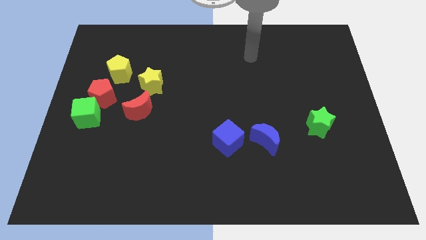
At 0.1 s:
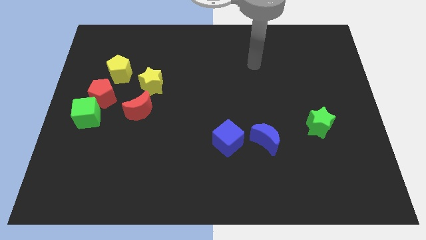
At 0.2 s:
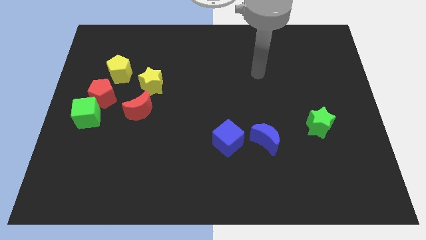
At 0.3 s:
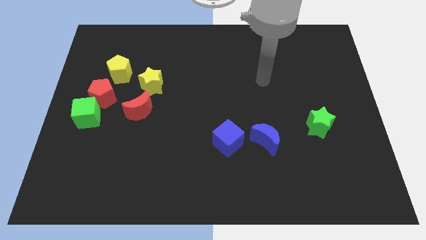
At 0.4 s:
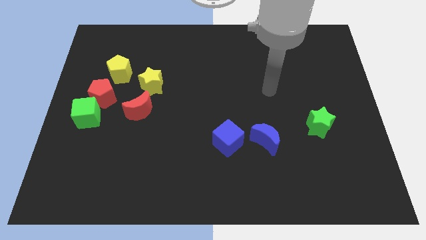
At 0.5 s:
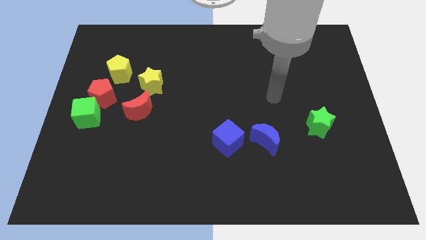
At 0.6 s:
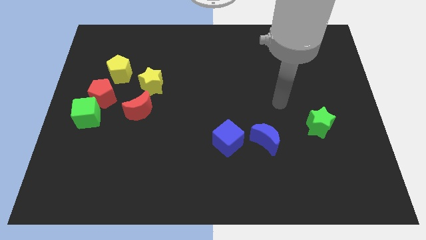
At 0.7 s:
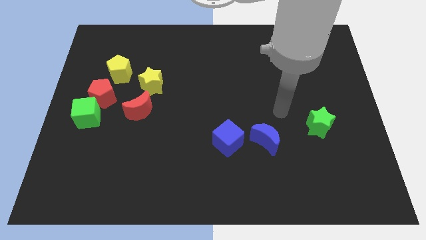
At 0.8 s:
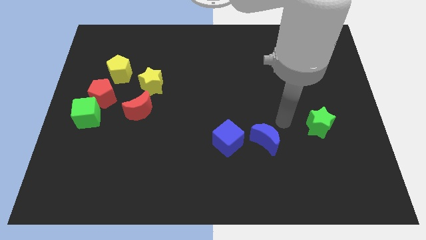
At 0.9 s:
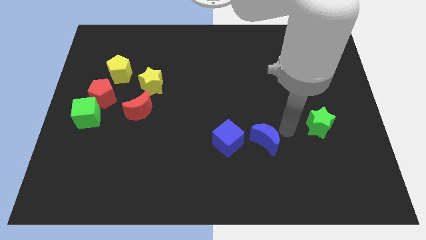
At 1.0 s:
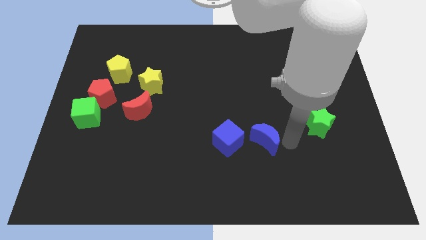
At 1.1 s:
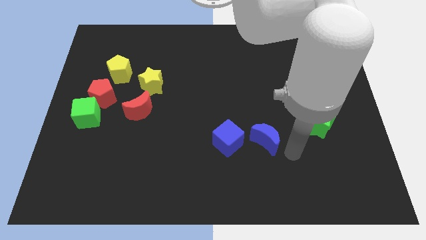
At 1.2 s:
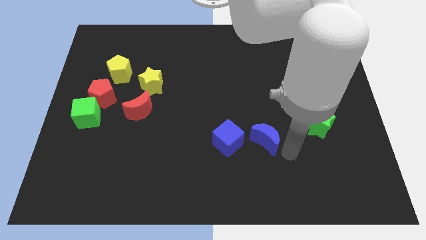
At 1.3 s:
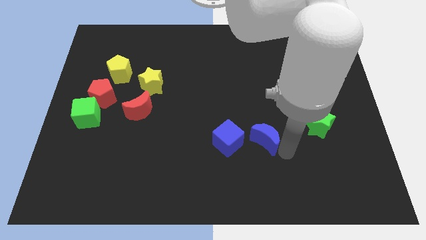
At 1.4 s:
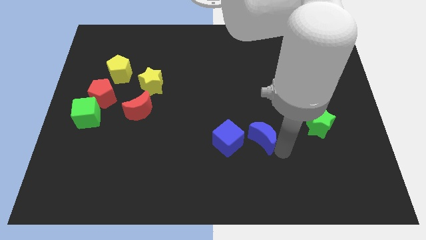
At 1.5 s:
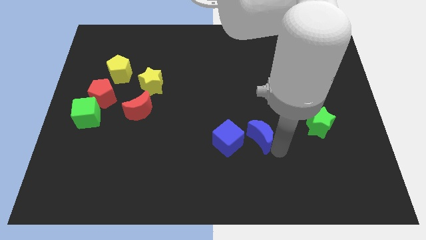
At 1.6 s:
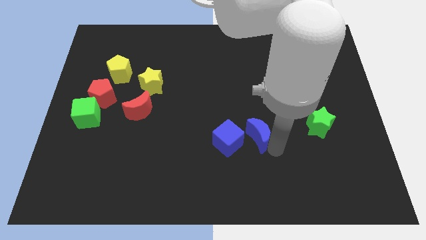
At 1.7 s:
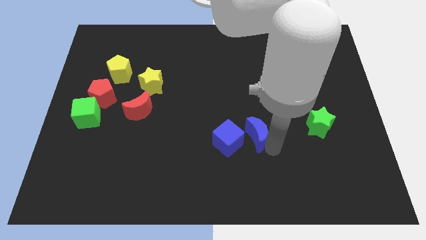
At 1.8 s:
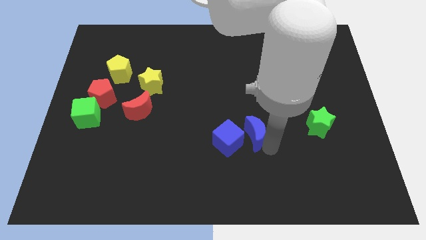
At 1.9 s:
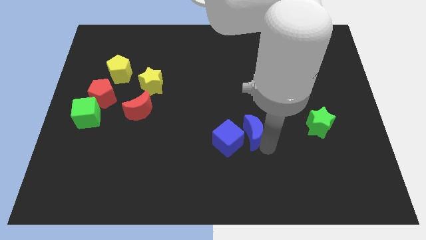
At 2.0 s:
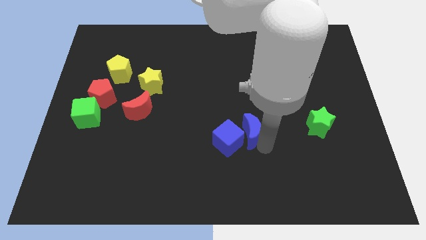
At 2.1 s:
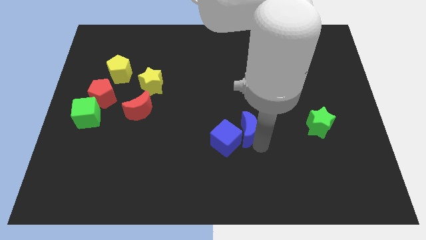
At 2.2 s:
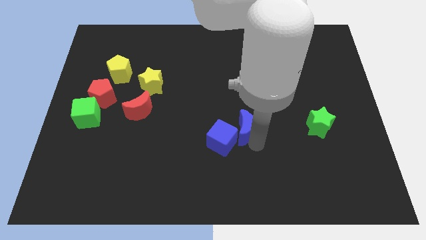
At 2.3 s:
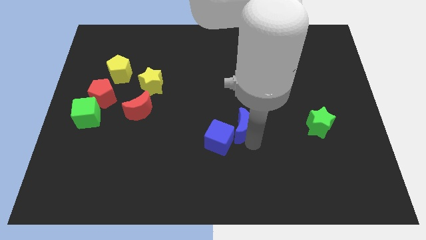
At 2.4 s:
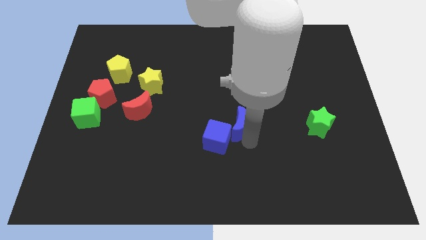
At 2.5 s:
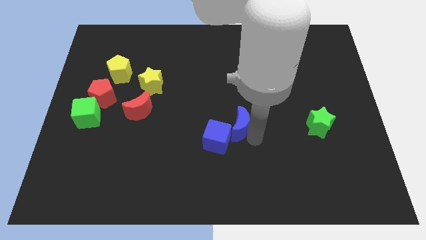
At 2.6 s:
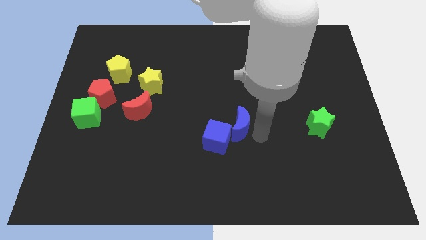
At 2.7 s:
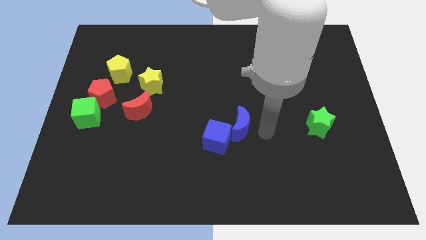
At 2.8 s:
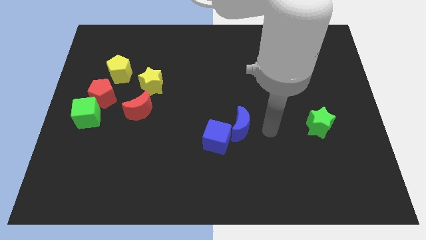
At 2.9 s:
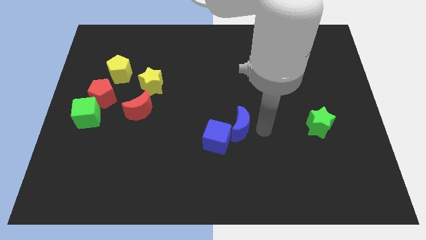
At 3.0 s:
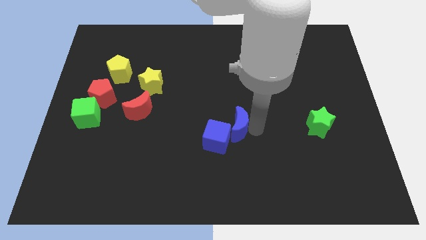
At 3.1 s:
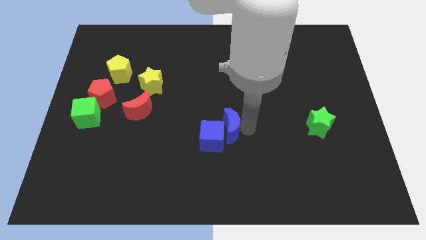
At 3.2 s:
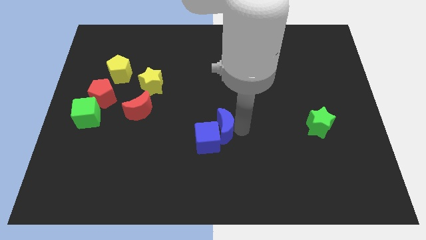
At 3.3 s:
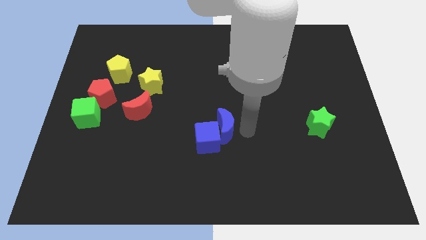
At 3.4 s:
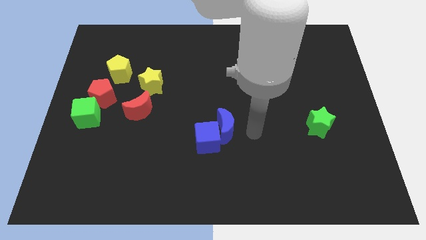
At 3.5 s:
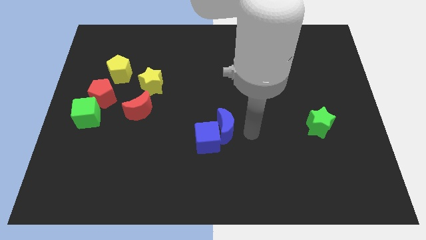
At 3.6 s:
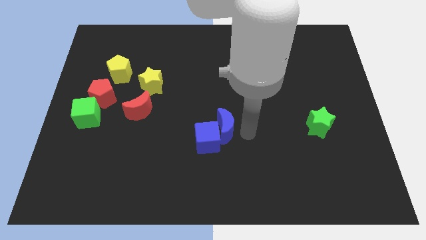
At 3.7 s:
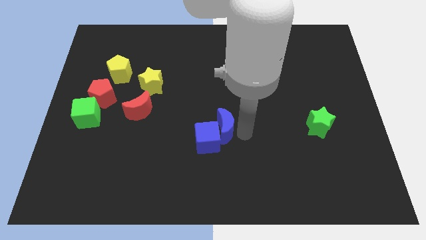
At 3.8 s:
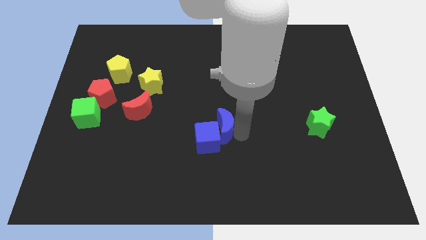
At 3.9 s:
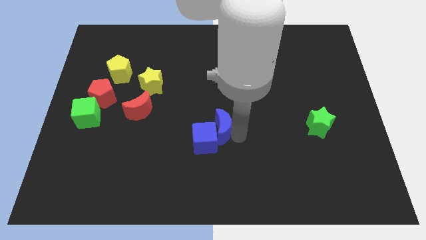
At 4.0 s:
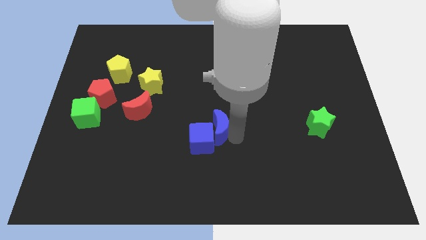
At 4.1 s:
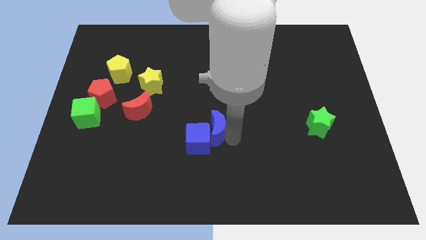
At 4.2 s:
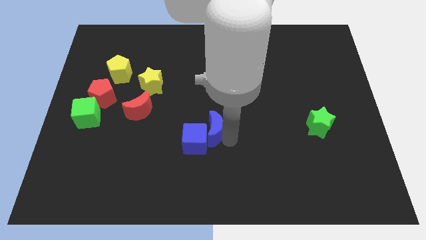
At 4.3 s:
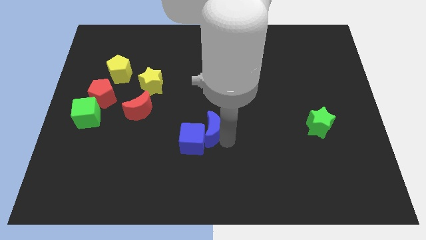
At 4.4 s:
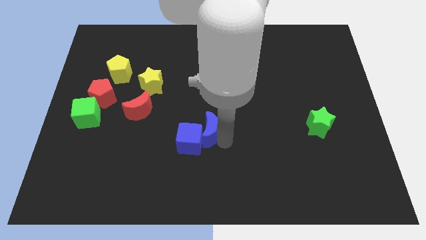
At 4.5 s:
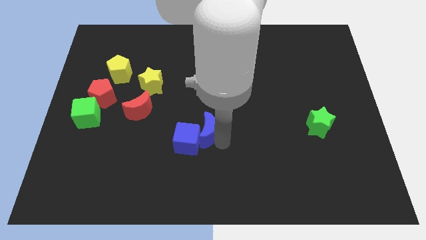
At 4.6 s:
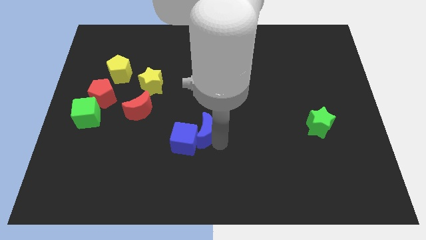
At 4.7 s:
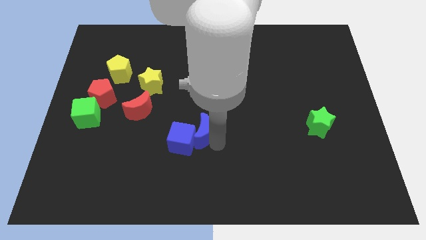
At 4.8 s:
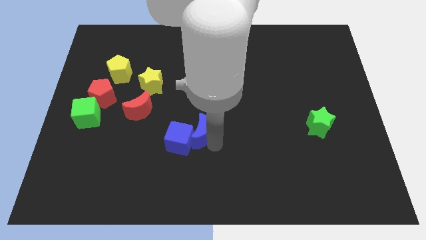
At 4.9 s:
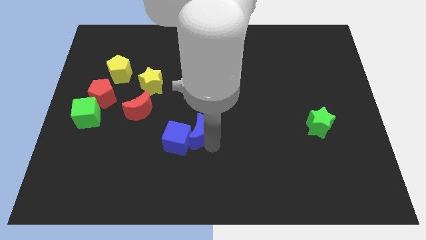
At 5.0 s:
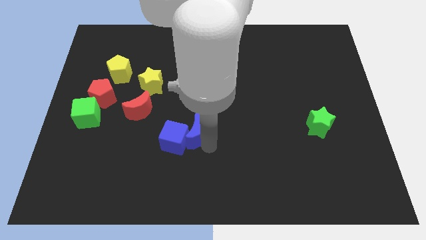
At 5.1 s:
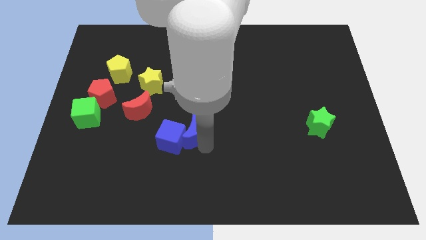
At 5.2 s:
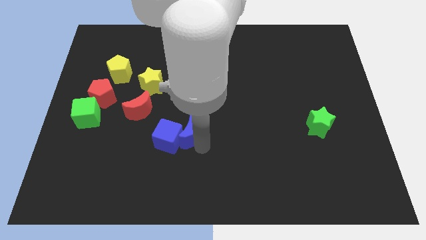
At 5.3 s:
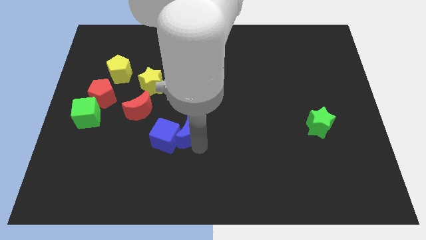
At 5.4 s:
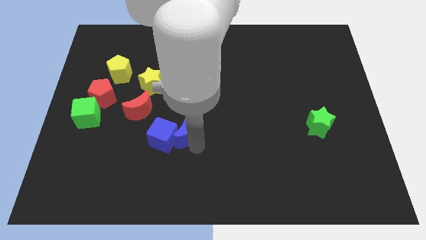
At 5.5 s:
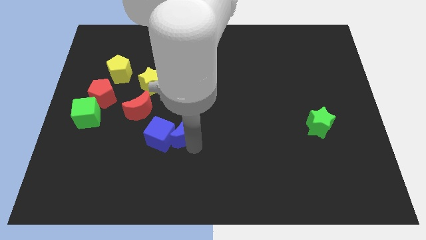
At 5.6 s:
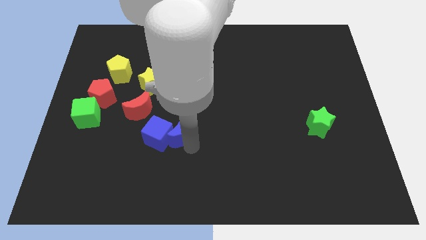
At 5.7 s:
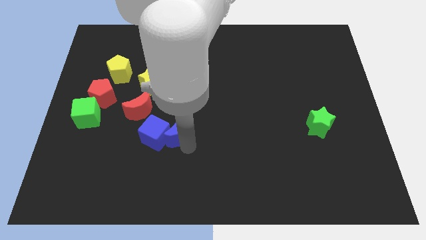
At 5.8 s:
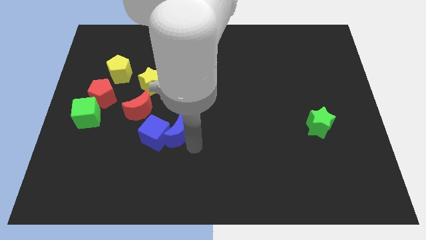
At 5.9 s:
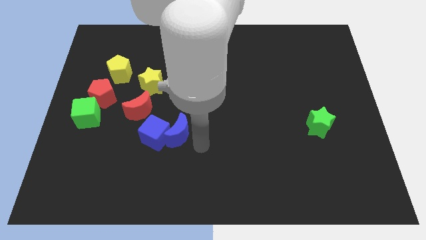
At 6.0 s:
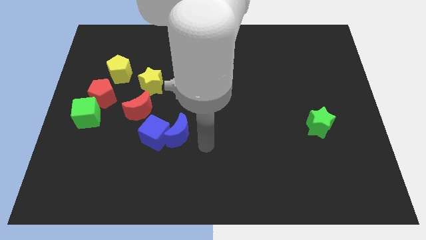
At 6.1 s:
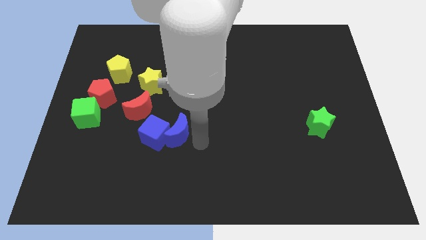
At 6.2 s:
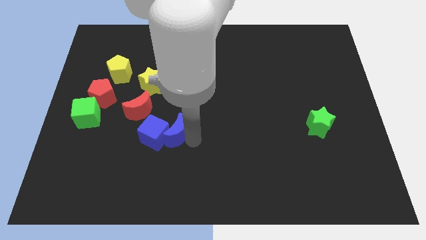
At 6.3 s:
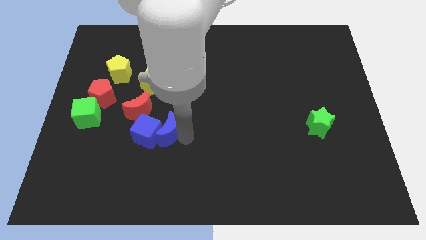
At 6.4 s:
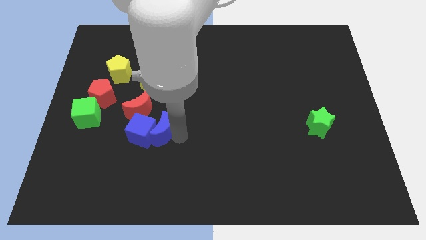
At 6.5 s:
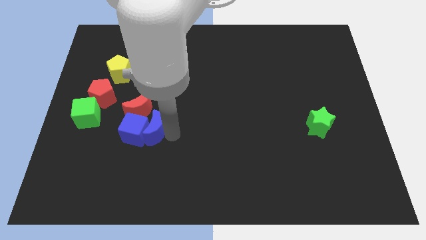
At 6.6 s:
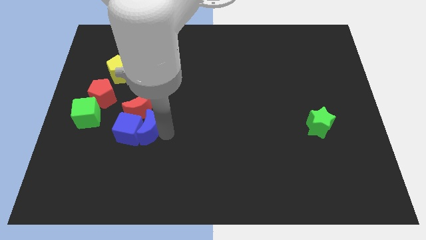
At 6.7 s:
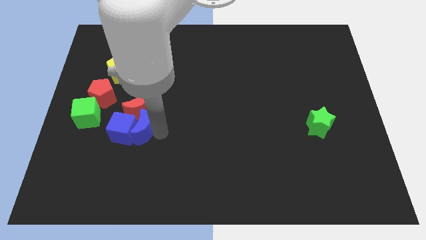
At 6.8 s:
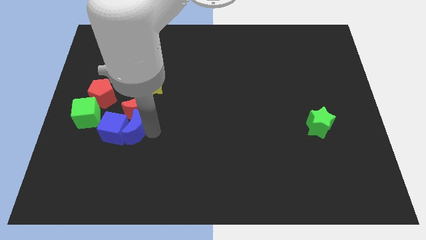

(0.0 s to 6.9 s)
put the blue moon diagonally down and to the left of the red moon
